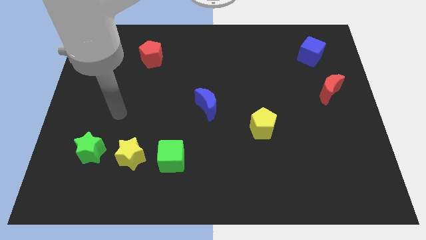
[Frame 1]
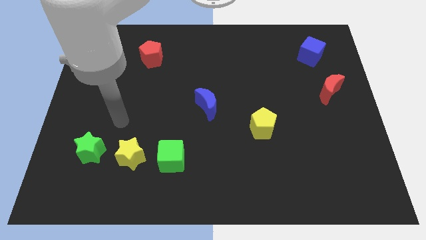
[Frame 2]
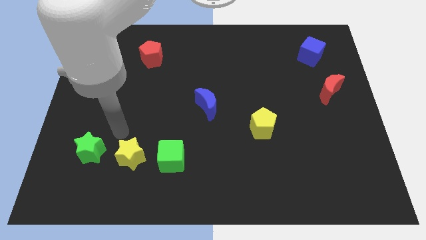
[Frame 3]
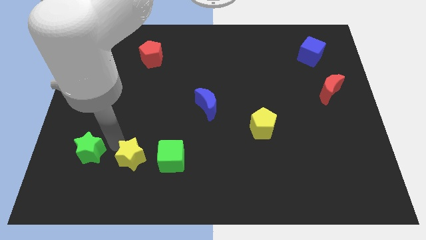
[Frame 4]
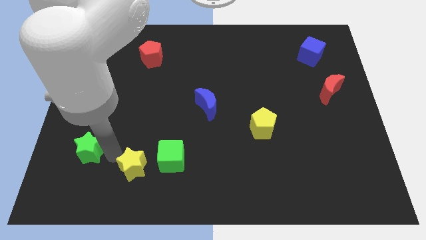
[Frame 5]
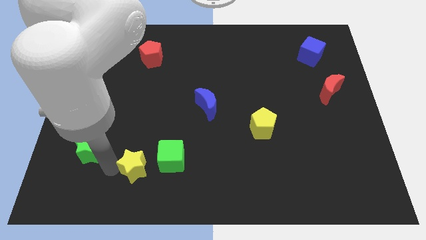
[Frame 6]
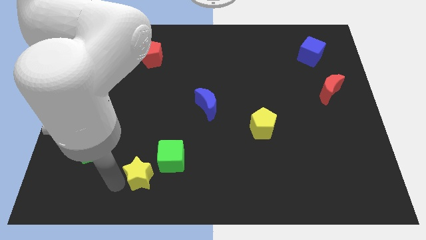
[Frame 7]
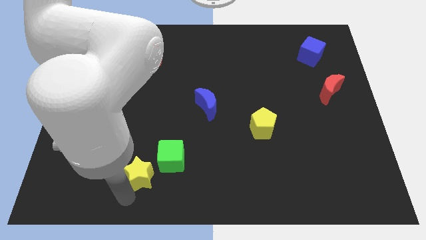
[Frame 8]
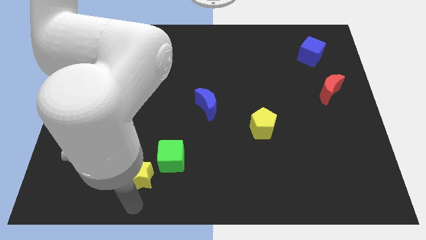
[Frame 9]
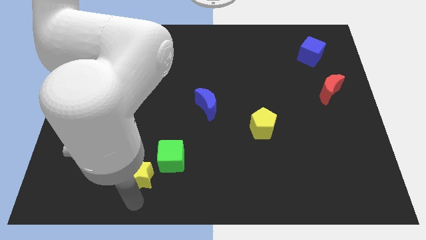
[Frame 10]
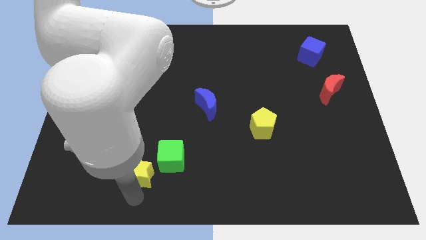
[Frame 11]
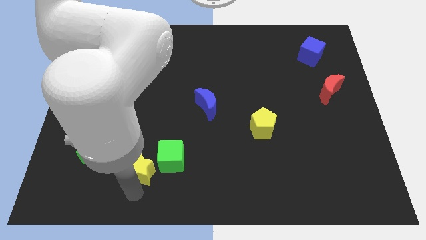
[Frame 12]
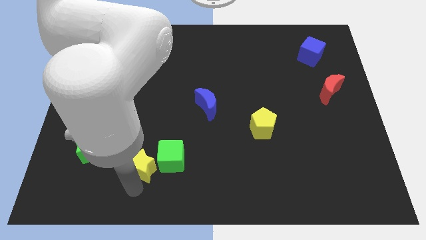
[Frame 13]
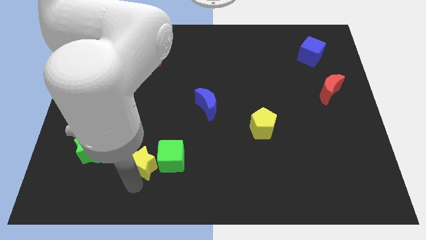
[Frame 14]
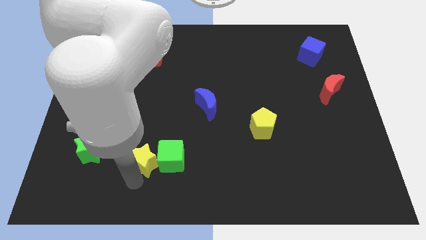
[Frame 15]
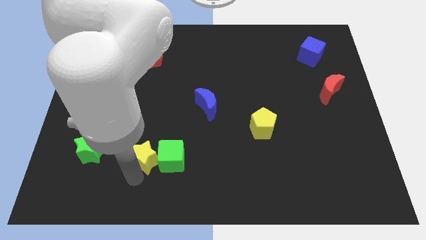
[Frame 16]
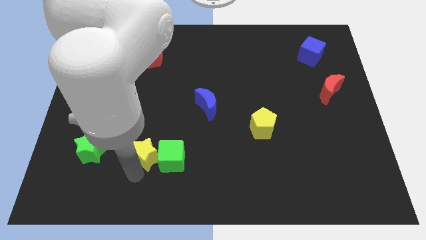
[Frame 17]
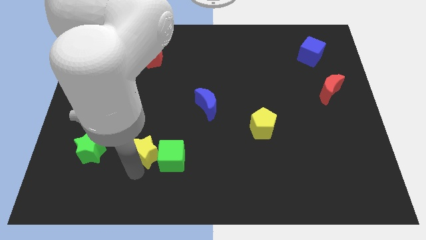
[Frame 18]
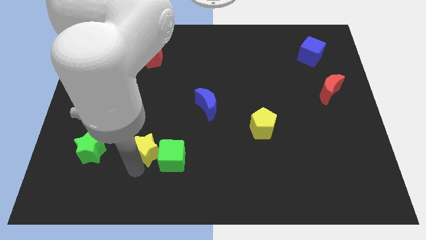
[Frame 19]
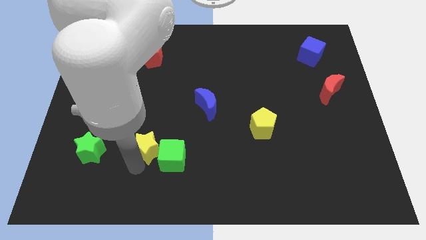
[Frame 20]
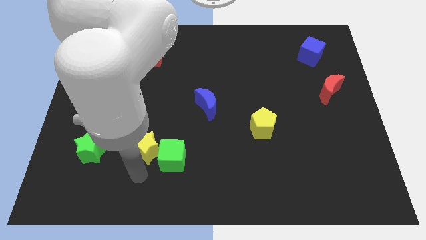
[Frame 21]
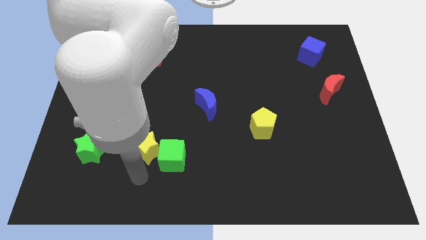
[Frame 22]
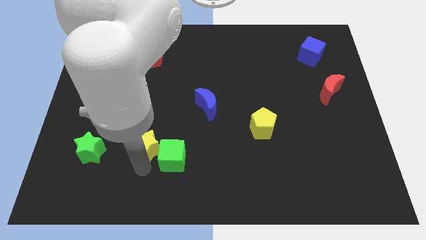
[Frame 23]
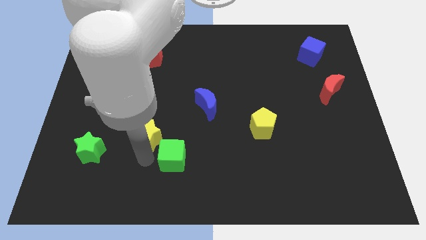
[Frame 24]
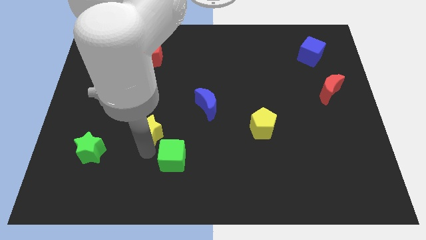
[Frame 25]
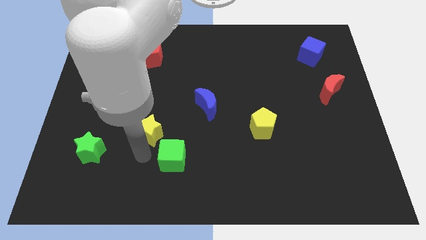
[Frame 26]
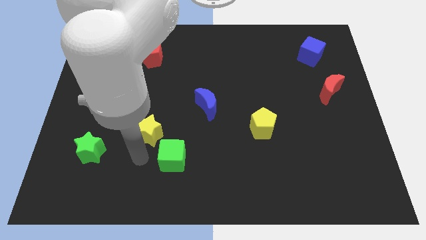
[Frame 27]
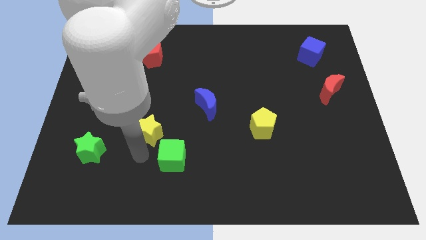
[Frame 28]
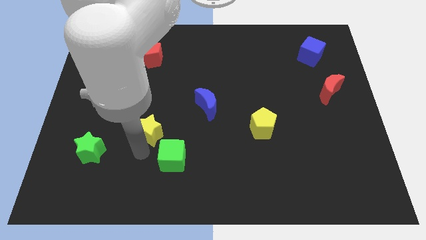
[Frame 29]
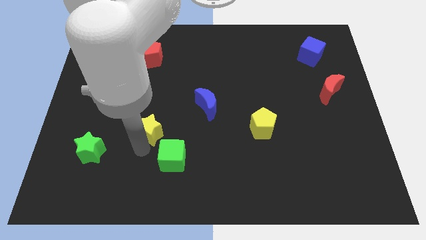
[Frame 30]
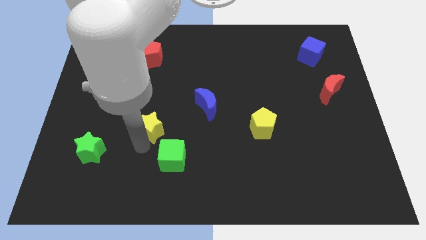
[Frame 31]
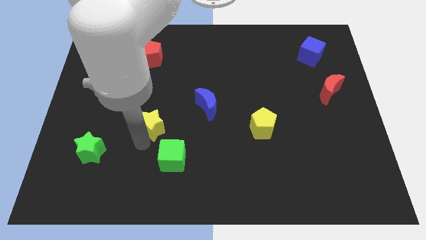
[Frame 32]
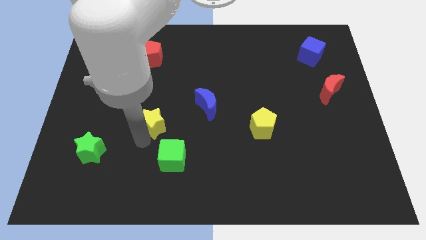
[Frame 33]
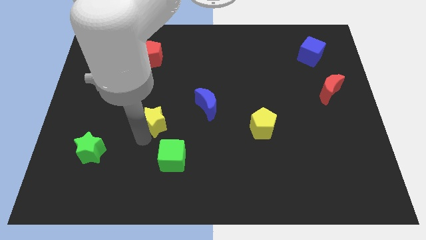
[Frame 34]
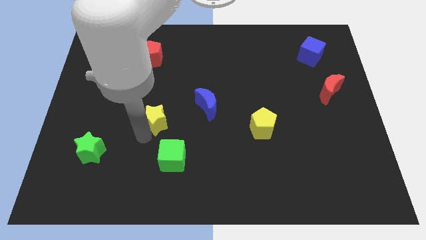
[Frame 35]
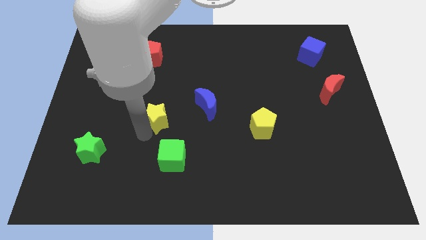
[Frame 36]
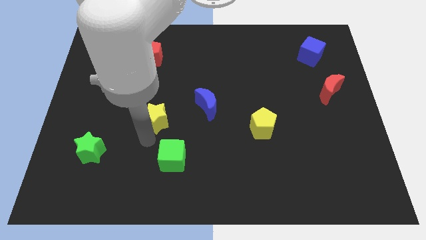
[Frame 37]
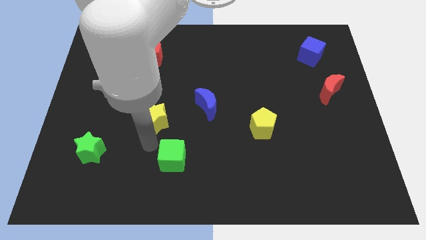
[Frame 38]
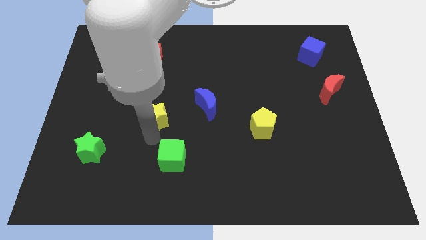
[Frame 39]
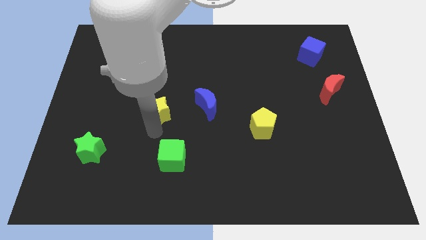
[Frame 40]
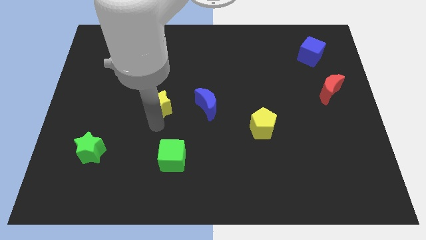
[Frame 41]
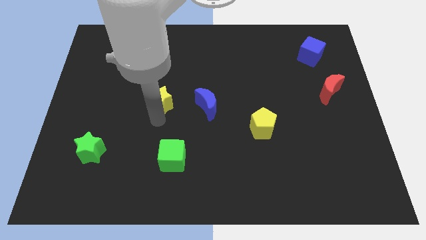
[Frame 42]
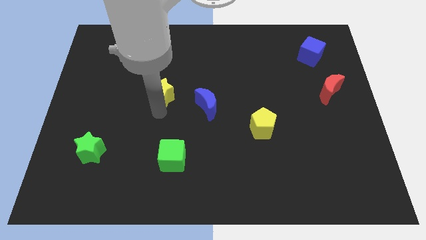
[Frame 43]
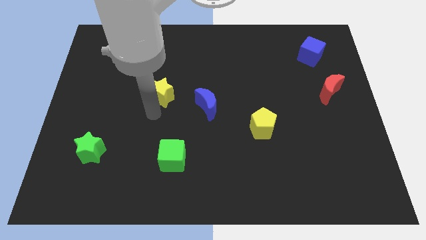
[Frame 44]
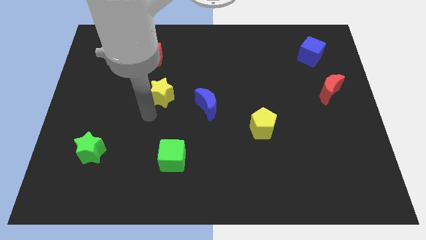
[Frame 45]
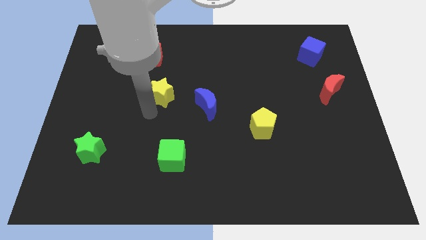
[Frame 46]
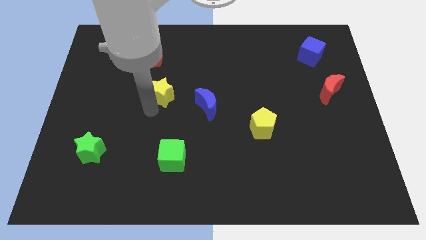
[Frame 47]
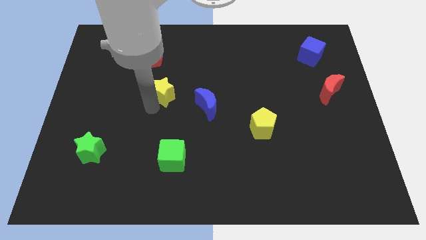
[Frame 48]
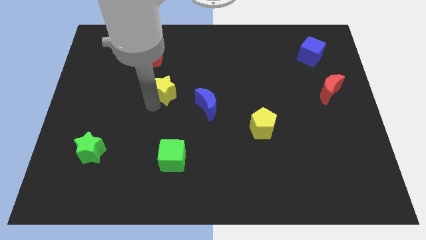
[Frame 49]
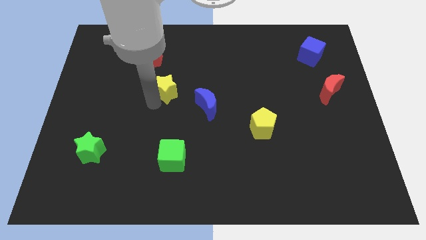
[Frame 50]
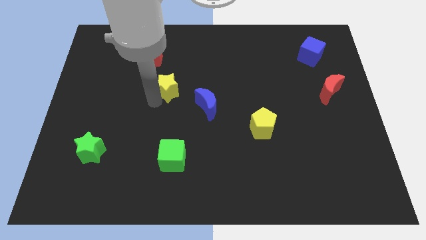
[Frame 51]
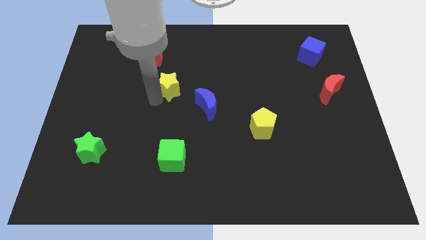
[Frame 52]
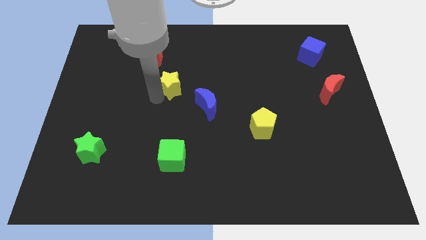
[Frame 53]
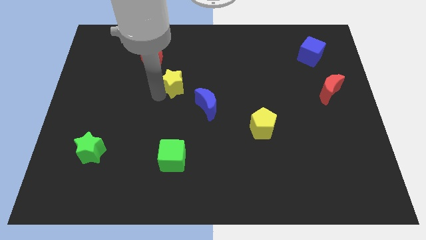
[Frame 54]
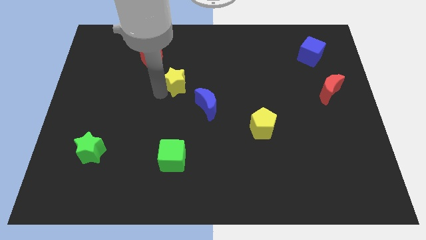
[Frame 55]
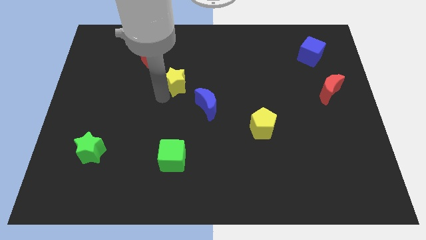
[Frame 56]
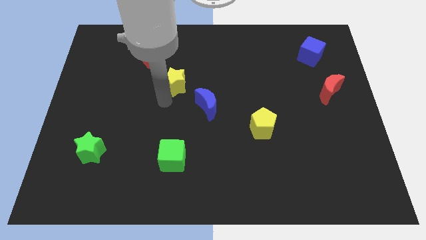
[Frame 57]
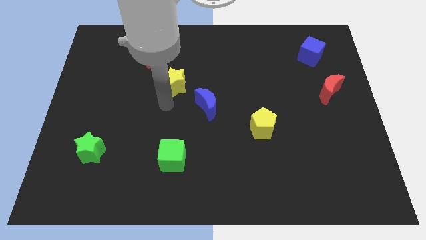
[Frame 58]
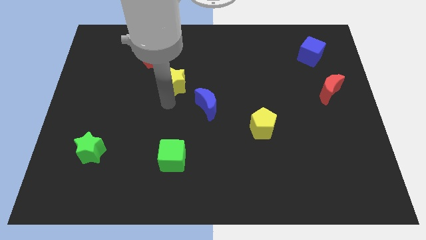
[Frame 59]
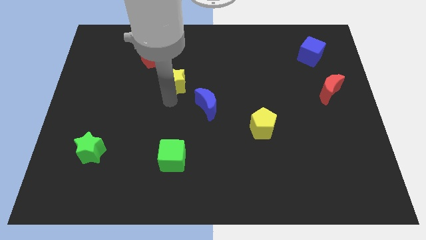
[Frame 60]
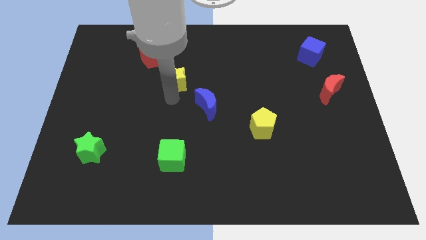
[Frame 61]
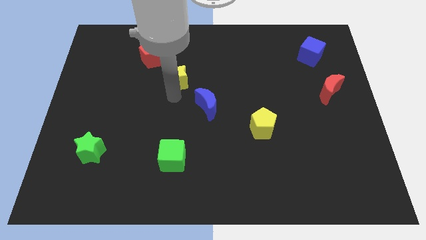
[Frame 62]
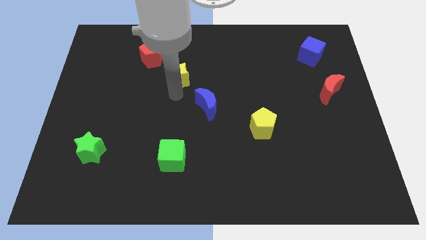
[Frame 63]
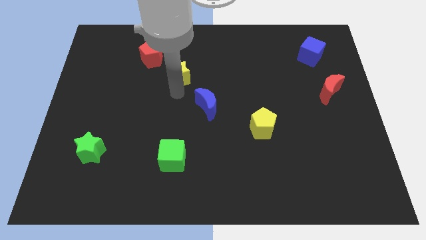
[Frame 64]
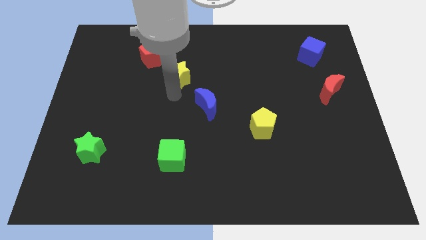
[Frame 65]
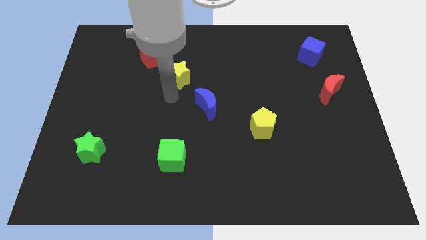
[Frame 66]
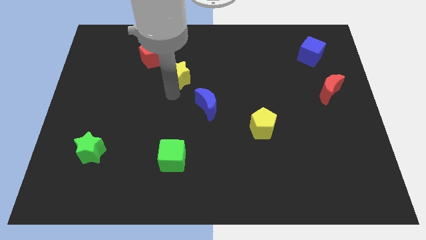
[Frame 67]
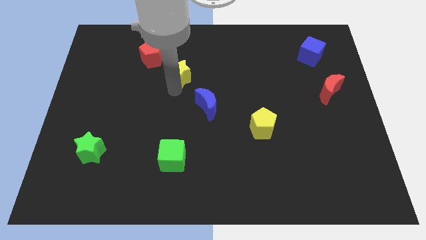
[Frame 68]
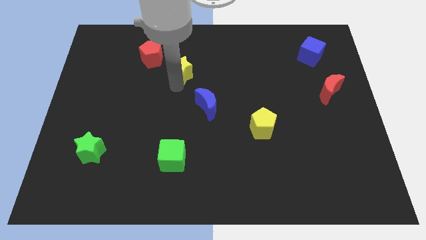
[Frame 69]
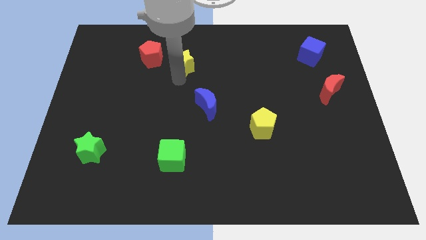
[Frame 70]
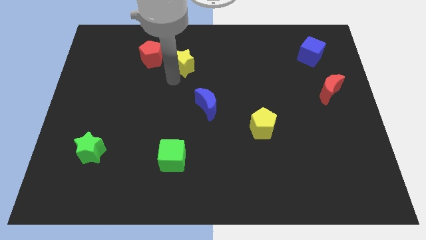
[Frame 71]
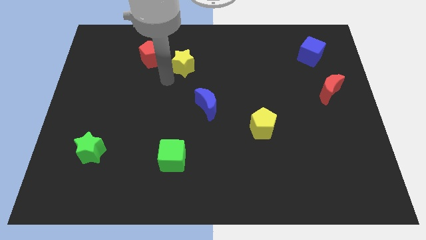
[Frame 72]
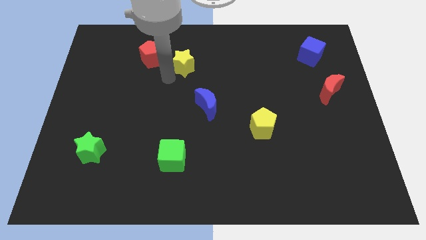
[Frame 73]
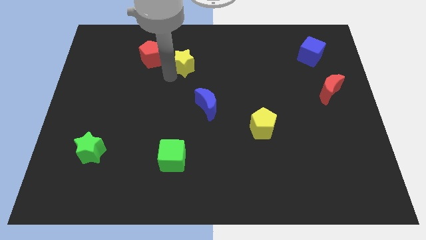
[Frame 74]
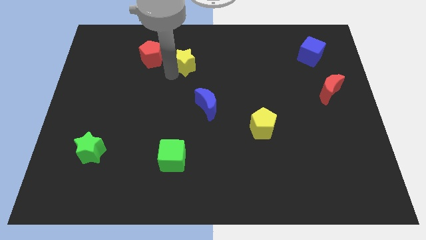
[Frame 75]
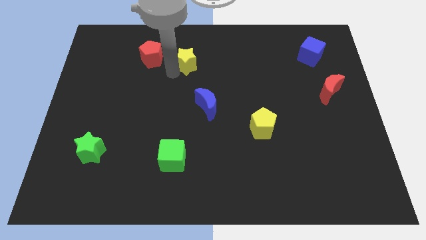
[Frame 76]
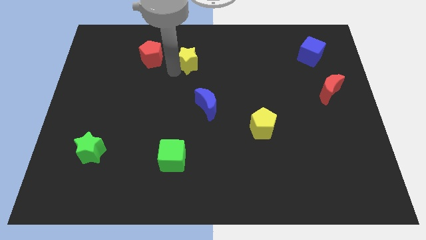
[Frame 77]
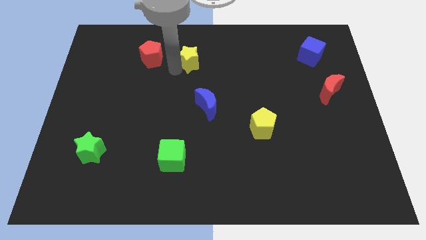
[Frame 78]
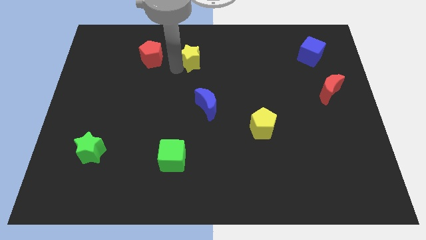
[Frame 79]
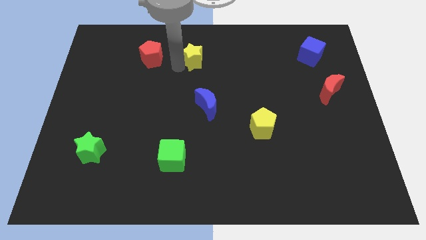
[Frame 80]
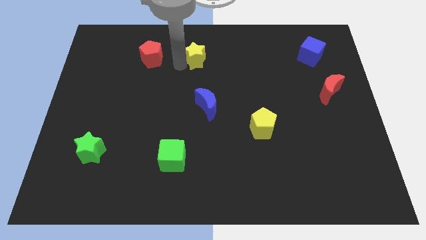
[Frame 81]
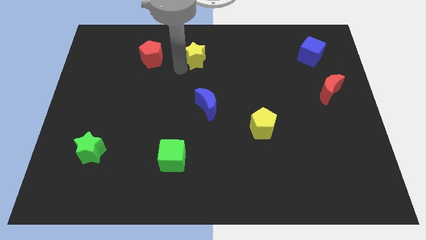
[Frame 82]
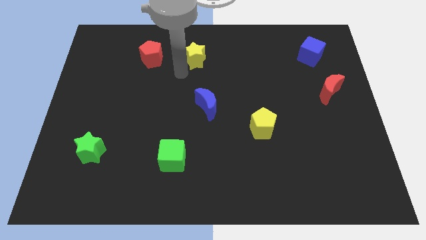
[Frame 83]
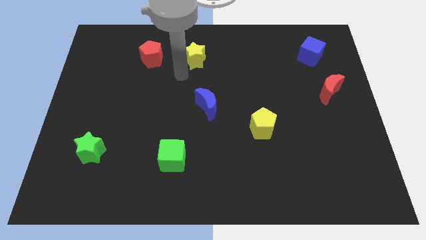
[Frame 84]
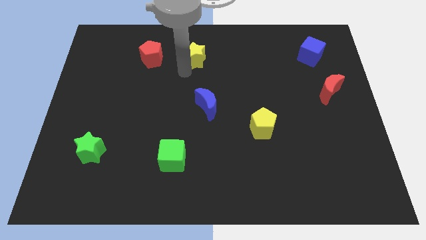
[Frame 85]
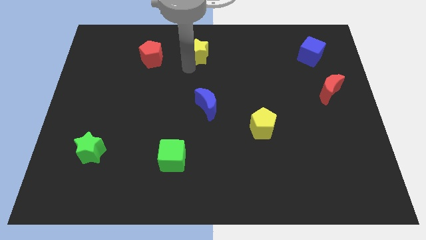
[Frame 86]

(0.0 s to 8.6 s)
put the yellow star to the top
